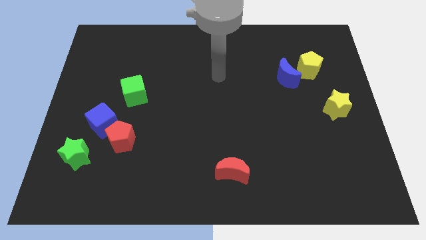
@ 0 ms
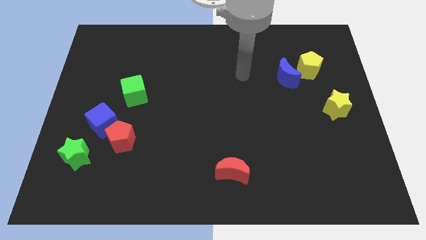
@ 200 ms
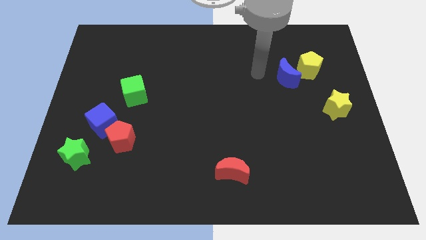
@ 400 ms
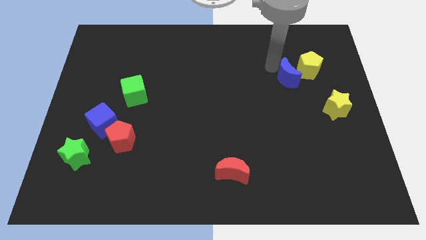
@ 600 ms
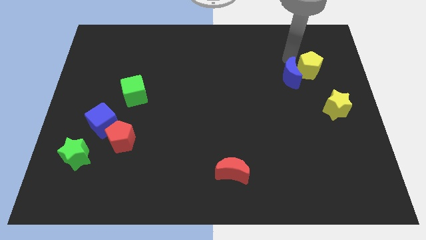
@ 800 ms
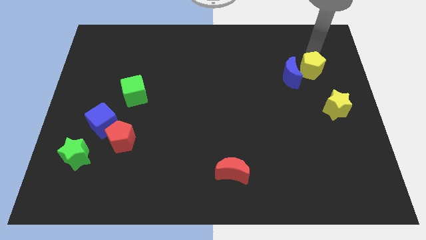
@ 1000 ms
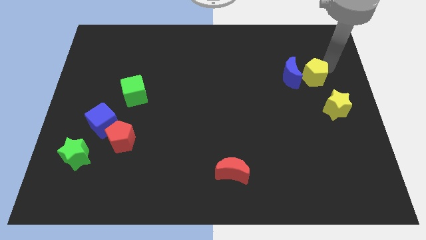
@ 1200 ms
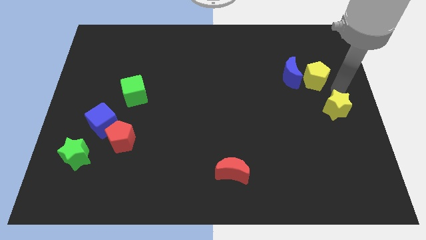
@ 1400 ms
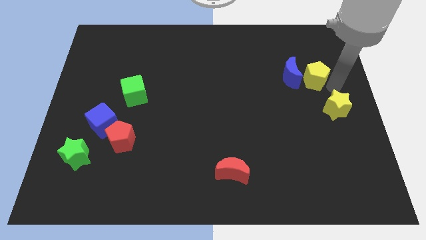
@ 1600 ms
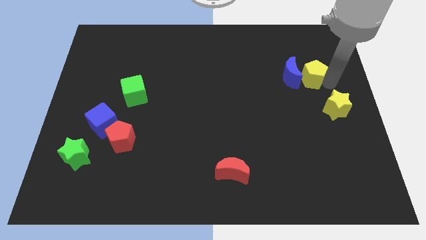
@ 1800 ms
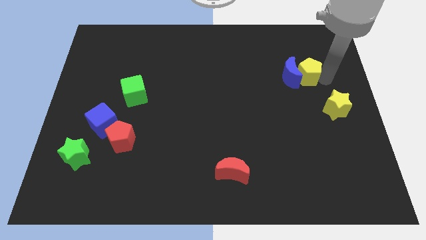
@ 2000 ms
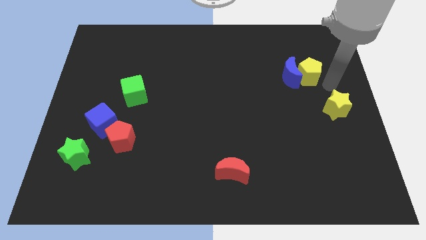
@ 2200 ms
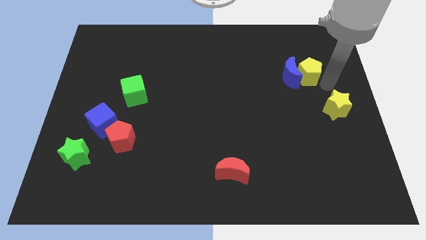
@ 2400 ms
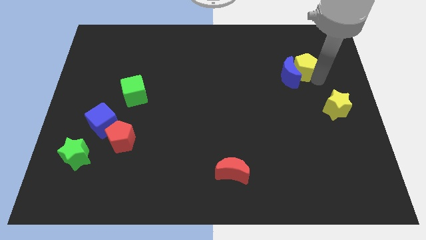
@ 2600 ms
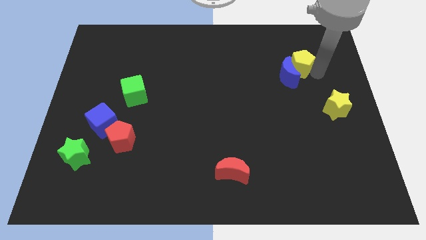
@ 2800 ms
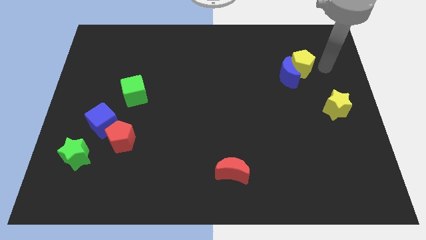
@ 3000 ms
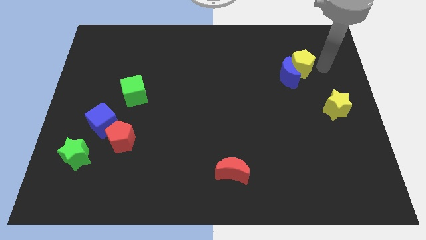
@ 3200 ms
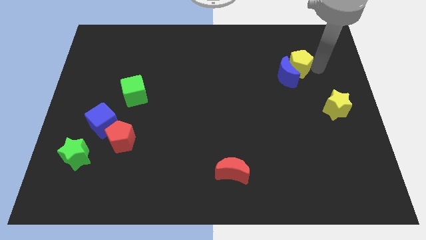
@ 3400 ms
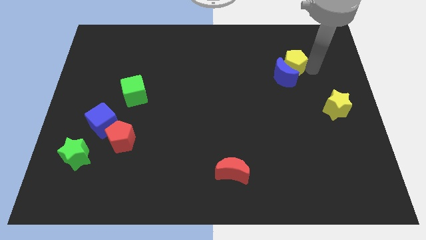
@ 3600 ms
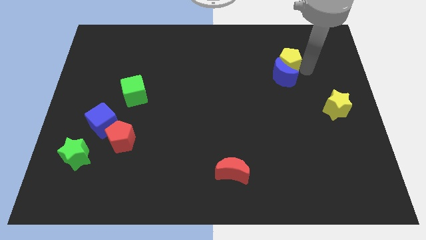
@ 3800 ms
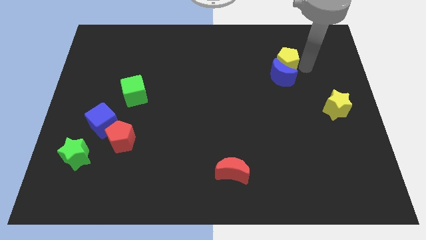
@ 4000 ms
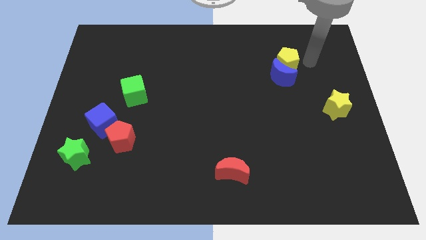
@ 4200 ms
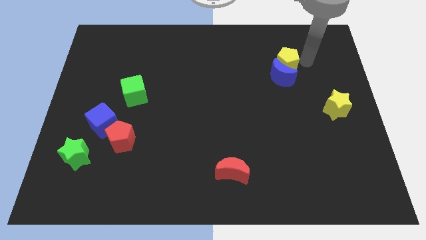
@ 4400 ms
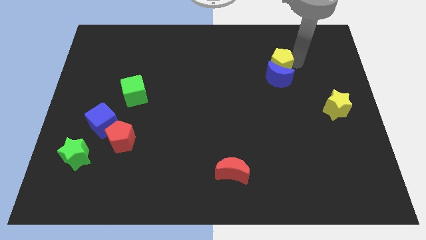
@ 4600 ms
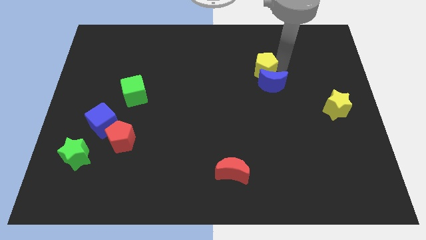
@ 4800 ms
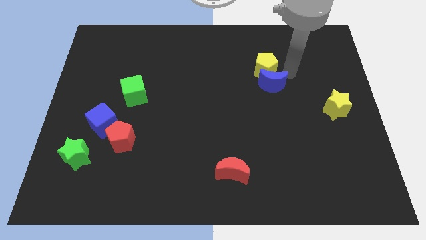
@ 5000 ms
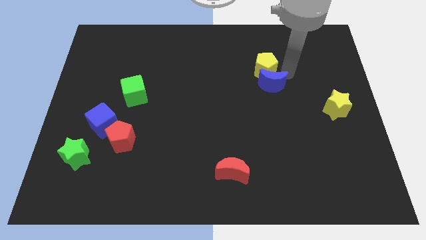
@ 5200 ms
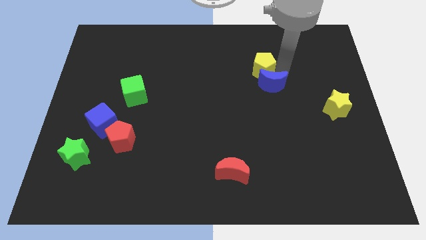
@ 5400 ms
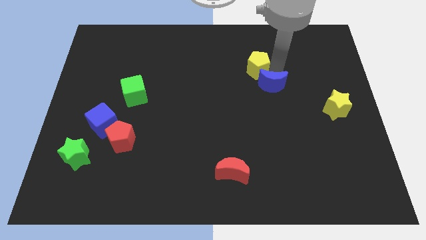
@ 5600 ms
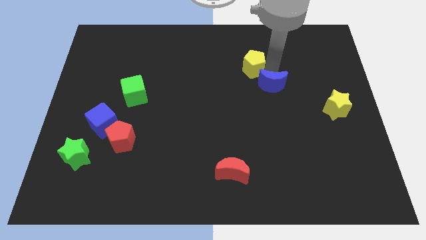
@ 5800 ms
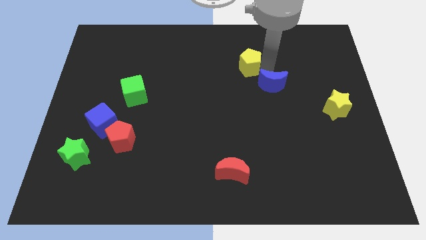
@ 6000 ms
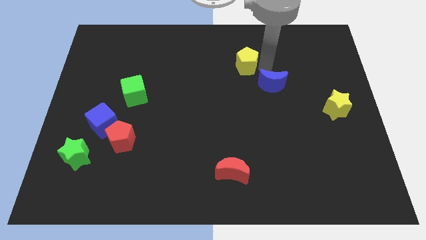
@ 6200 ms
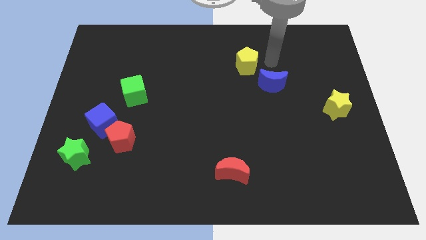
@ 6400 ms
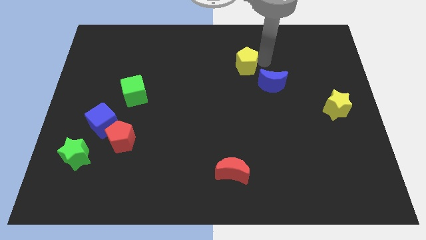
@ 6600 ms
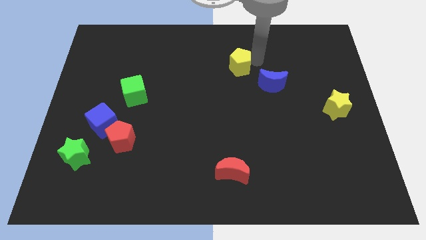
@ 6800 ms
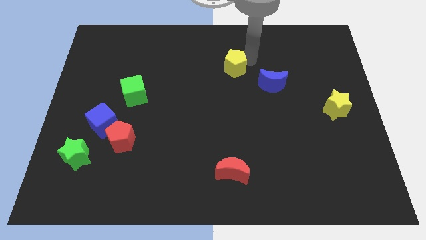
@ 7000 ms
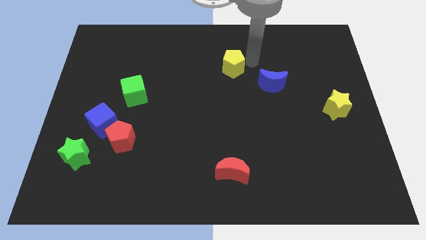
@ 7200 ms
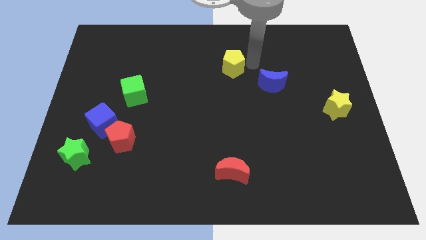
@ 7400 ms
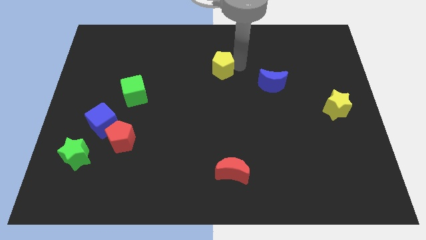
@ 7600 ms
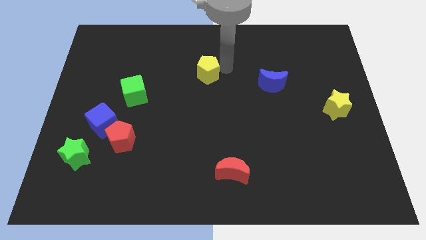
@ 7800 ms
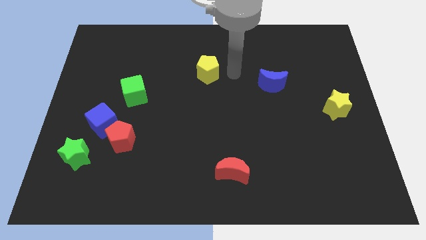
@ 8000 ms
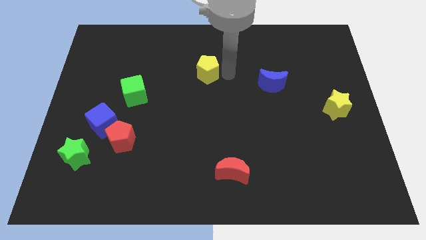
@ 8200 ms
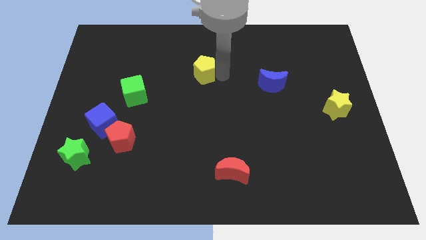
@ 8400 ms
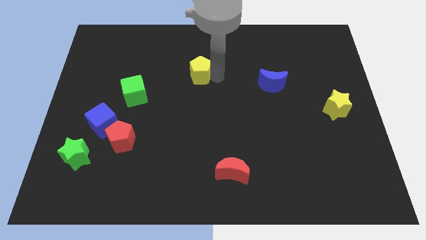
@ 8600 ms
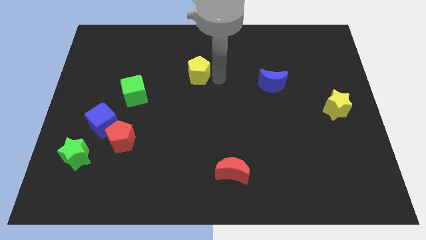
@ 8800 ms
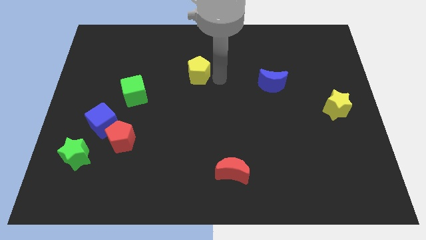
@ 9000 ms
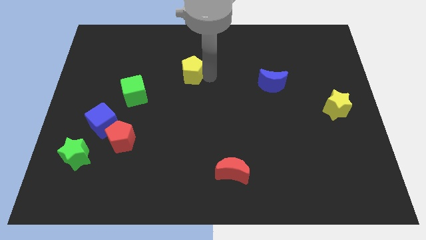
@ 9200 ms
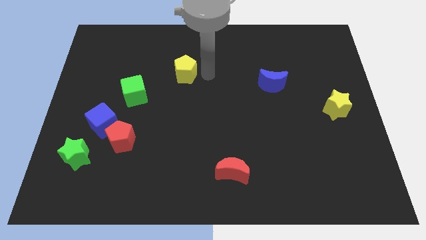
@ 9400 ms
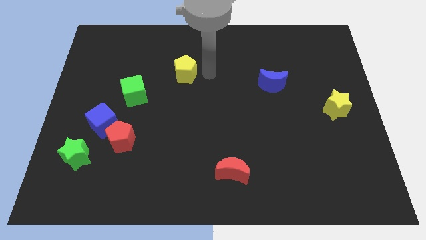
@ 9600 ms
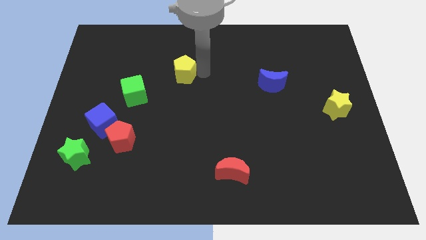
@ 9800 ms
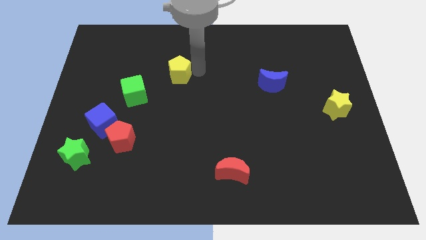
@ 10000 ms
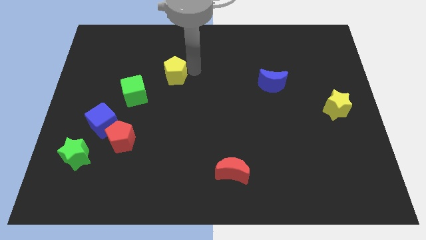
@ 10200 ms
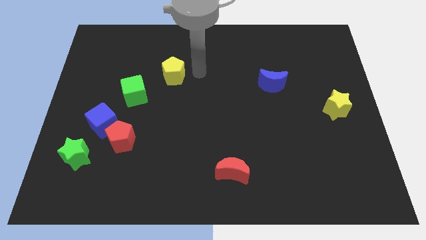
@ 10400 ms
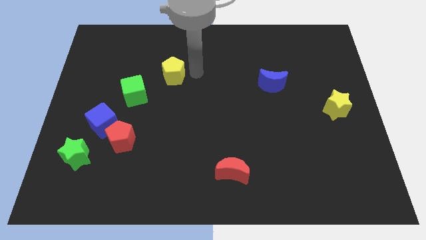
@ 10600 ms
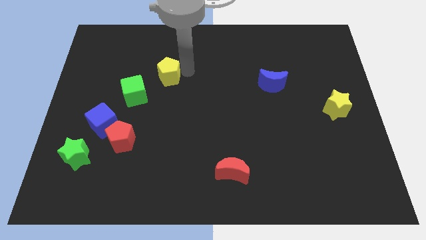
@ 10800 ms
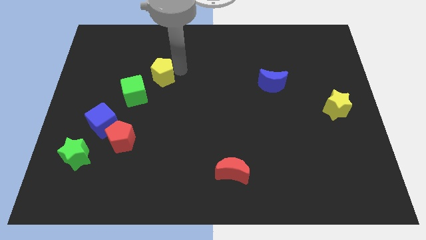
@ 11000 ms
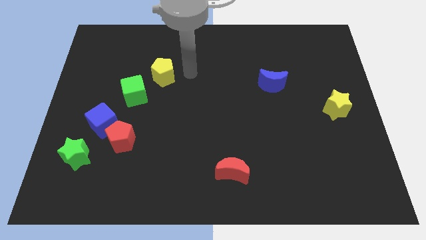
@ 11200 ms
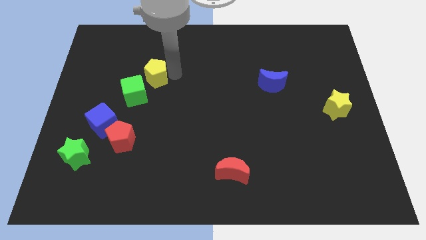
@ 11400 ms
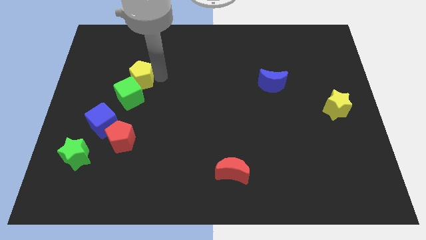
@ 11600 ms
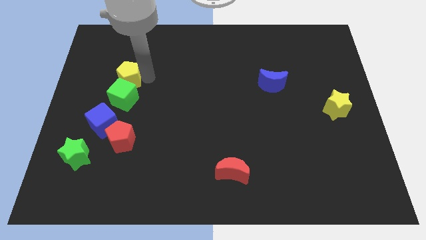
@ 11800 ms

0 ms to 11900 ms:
slide the yellow pentagon diagonally up and to the left of the green cube

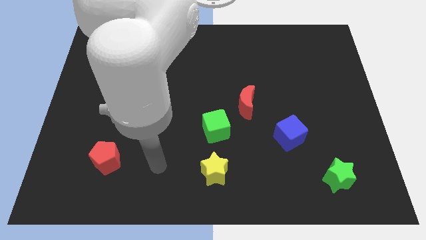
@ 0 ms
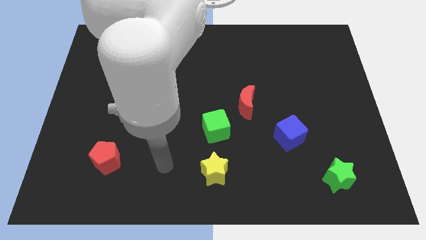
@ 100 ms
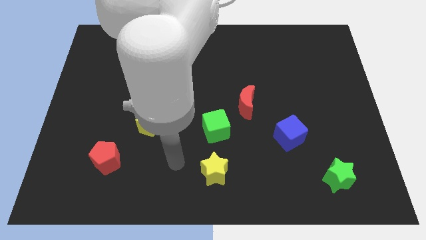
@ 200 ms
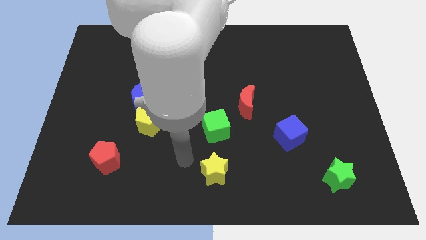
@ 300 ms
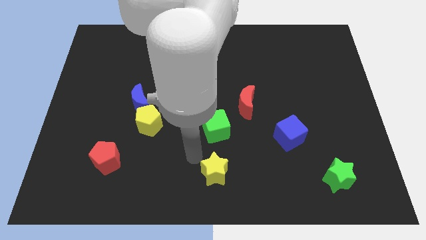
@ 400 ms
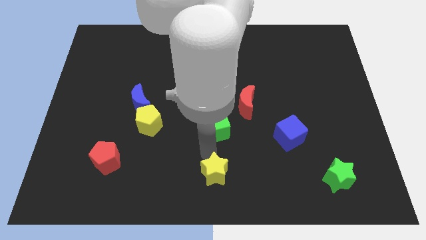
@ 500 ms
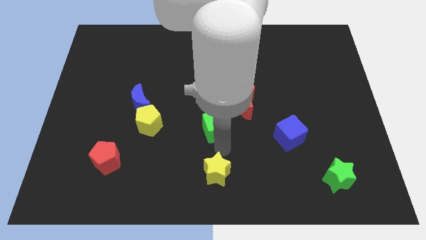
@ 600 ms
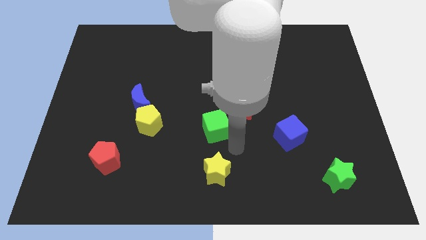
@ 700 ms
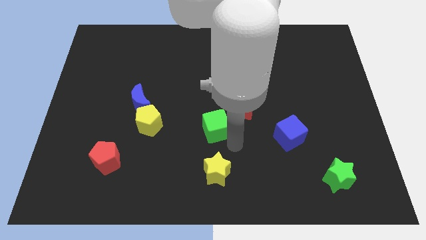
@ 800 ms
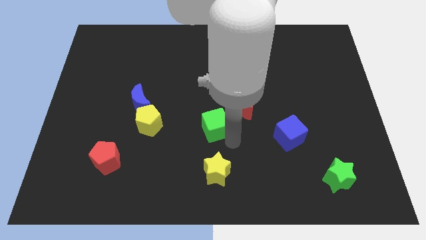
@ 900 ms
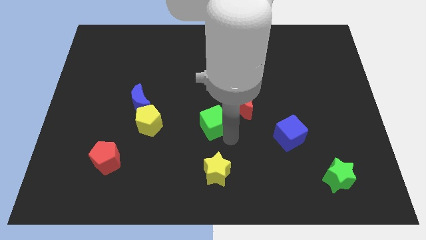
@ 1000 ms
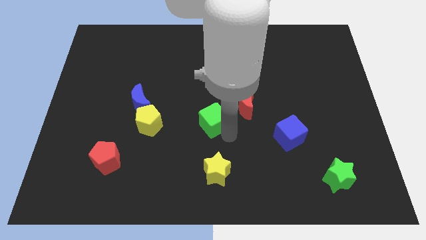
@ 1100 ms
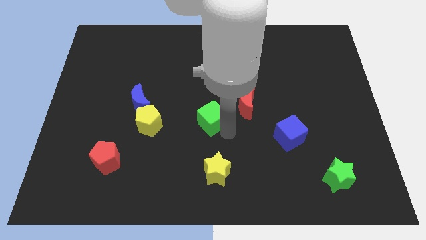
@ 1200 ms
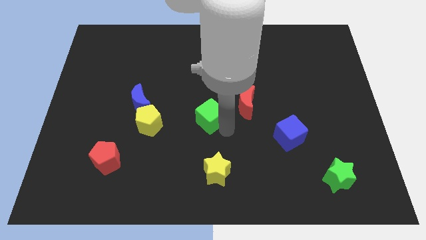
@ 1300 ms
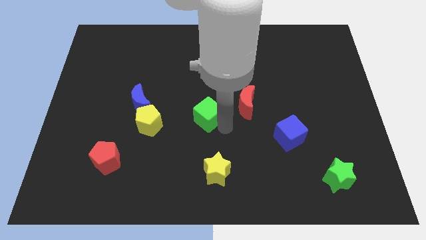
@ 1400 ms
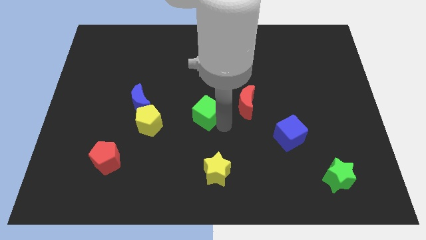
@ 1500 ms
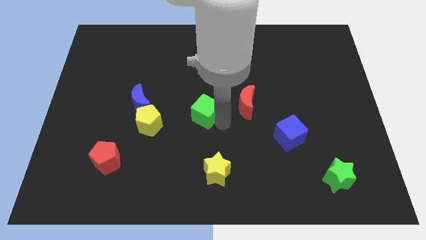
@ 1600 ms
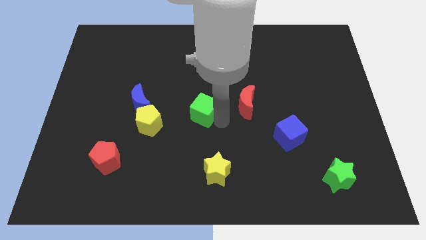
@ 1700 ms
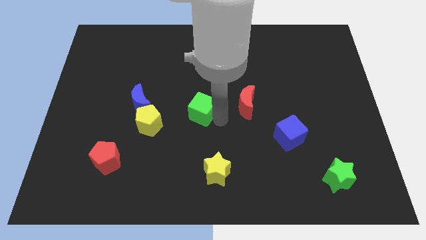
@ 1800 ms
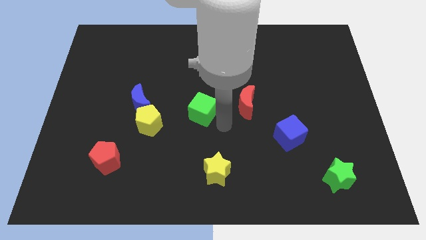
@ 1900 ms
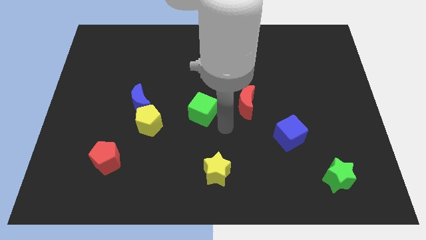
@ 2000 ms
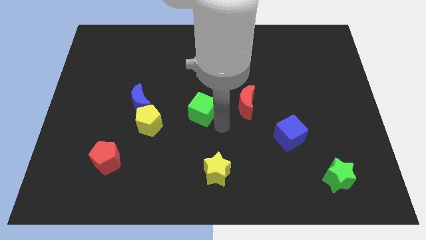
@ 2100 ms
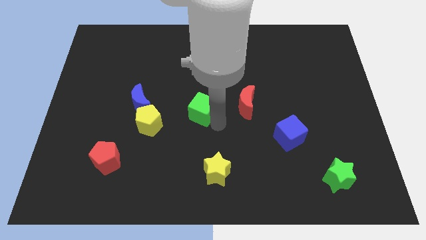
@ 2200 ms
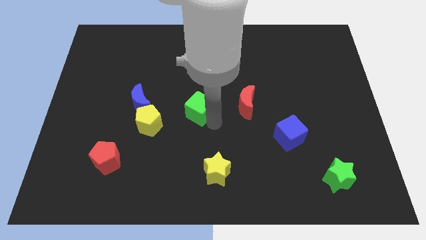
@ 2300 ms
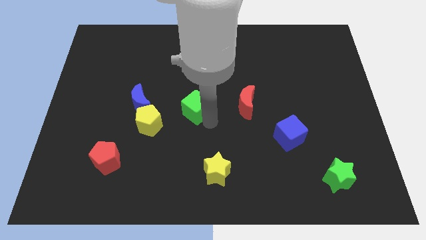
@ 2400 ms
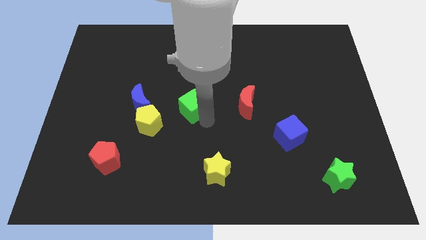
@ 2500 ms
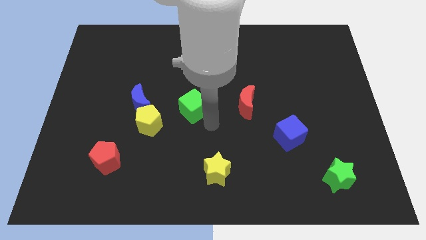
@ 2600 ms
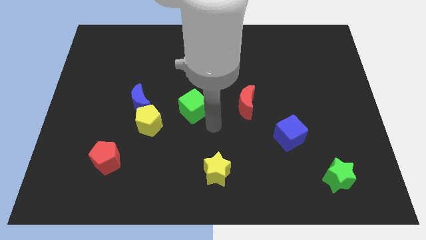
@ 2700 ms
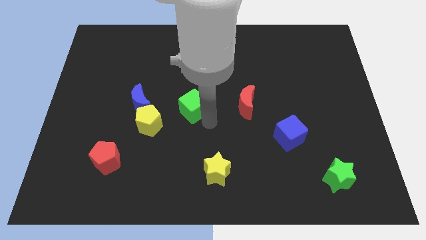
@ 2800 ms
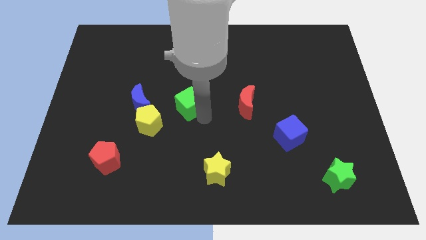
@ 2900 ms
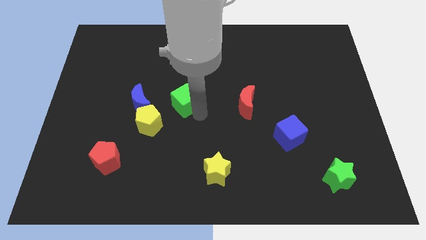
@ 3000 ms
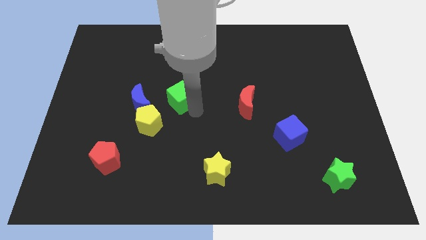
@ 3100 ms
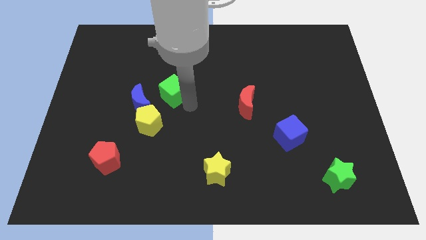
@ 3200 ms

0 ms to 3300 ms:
push the green cube to the top side of the yellow pentagon
